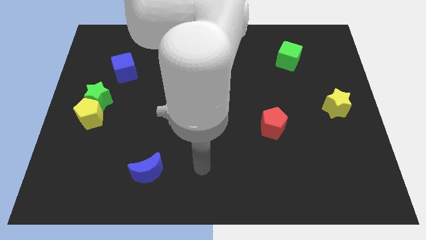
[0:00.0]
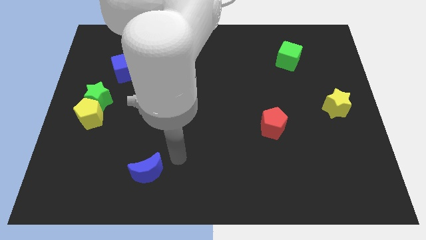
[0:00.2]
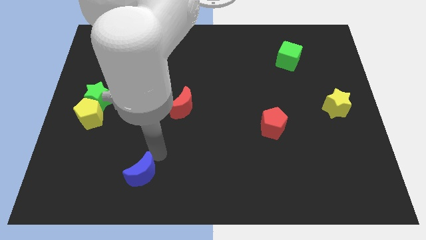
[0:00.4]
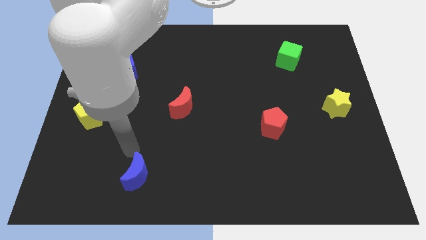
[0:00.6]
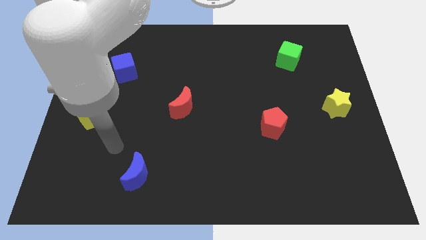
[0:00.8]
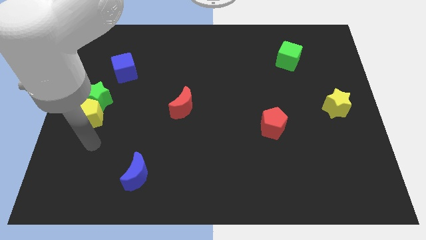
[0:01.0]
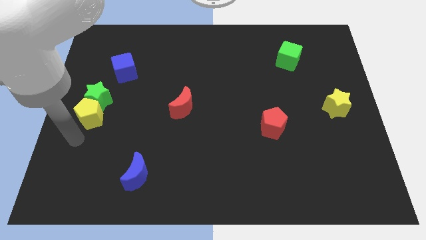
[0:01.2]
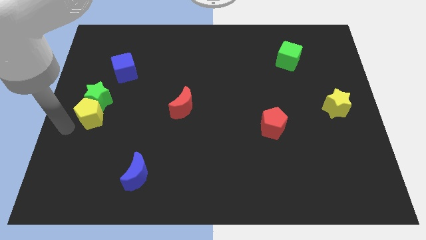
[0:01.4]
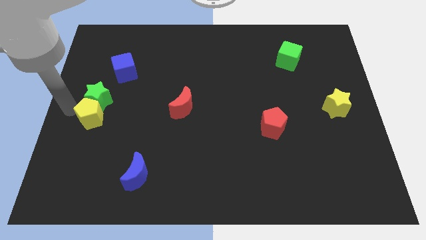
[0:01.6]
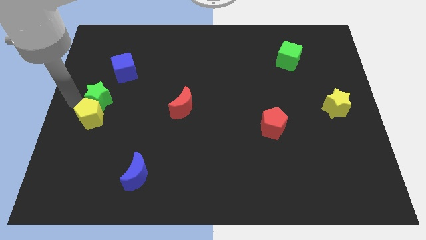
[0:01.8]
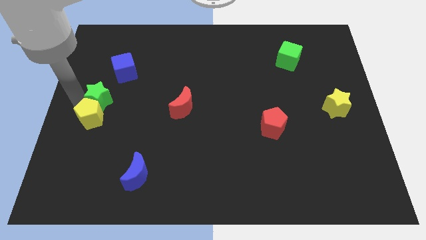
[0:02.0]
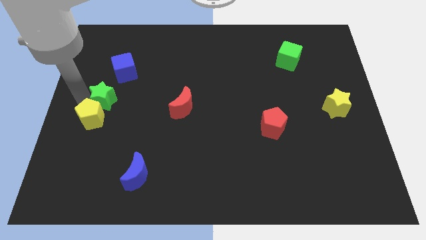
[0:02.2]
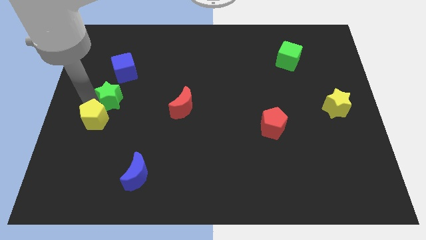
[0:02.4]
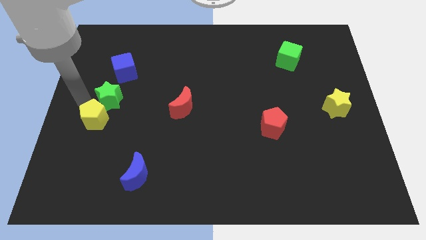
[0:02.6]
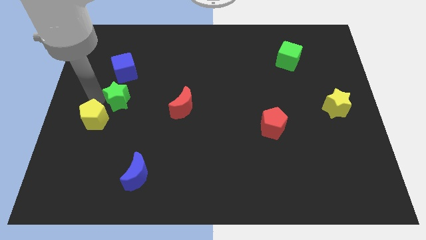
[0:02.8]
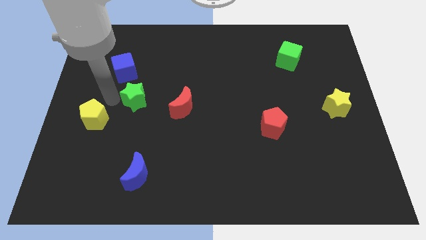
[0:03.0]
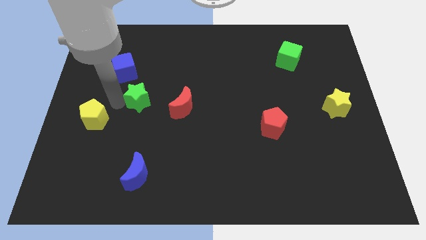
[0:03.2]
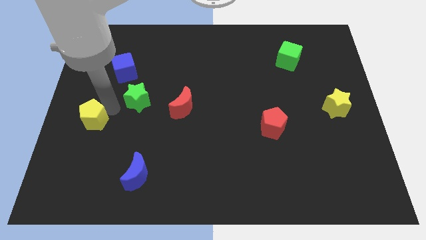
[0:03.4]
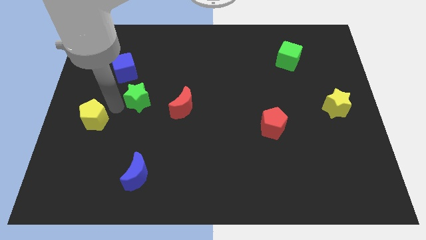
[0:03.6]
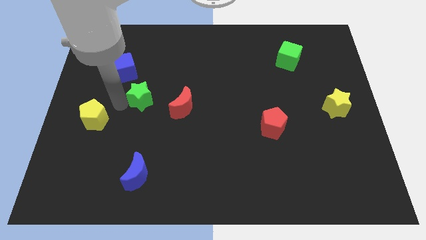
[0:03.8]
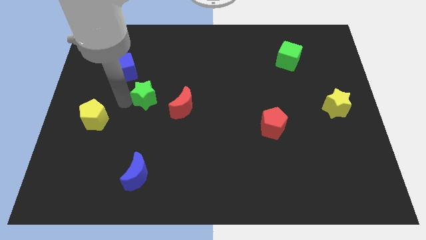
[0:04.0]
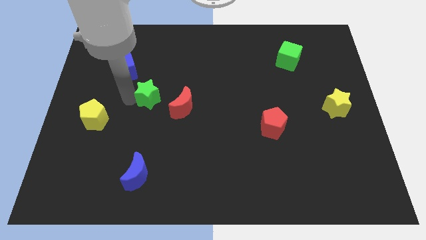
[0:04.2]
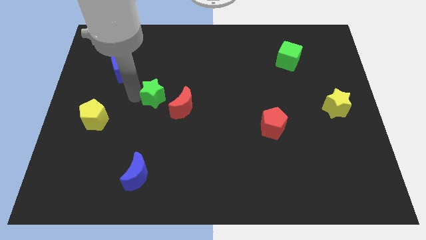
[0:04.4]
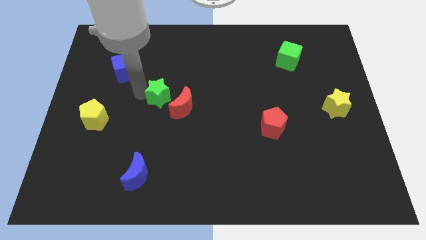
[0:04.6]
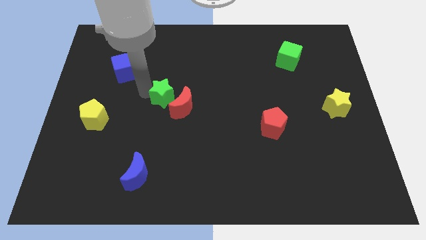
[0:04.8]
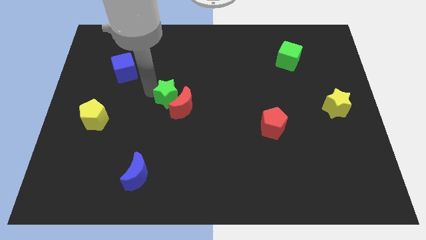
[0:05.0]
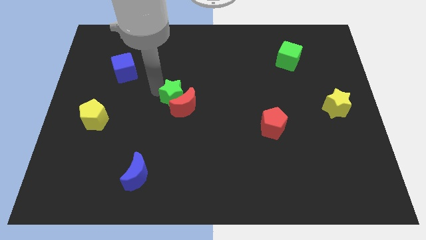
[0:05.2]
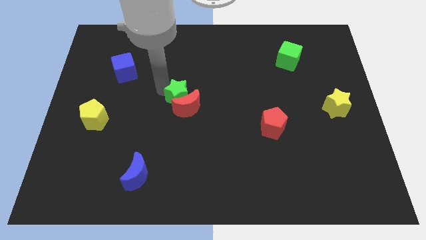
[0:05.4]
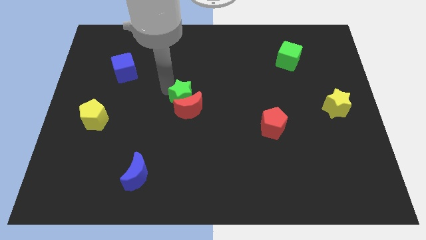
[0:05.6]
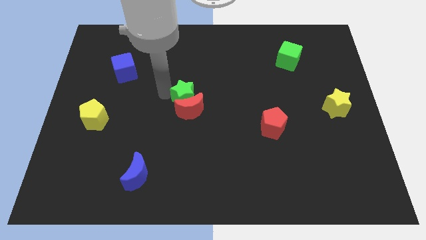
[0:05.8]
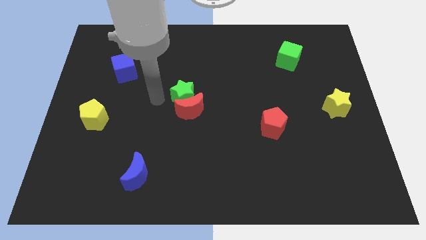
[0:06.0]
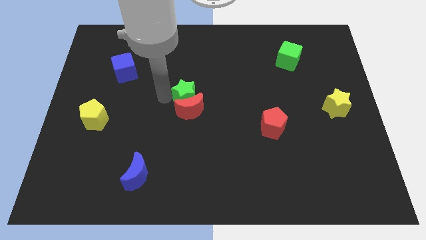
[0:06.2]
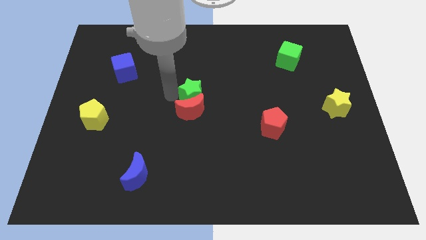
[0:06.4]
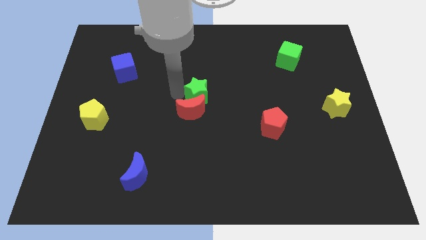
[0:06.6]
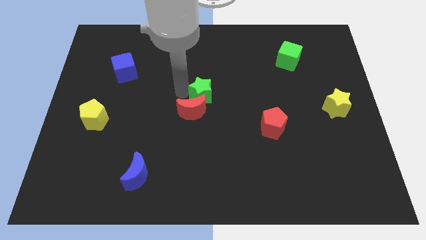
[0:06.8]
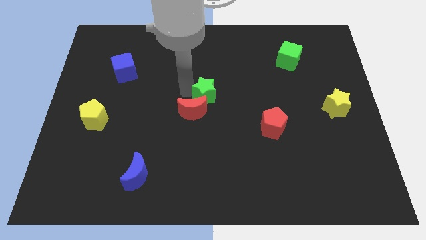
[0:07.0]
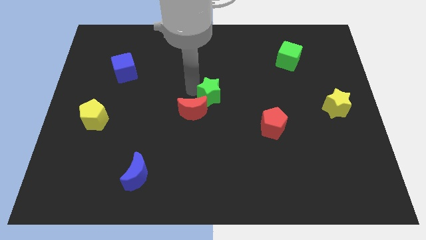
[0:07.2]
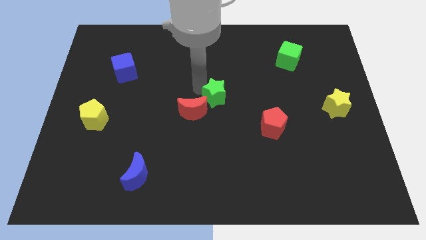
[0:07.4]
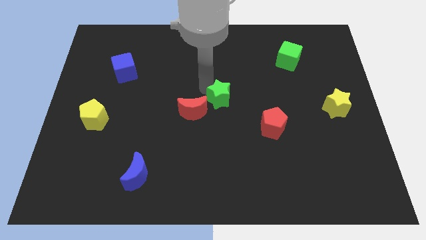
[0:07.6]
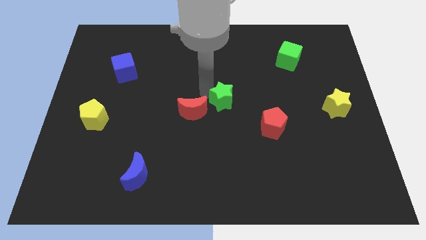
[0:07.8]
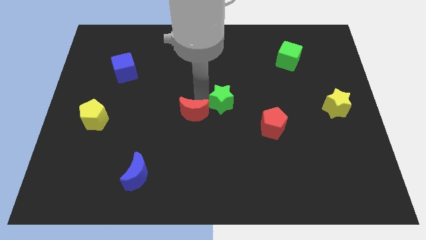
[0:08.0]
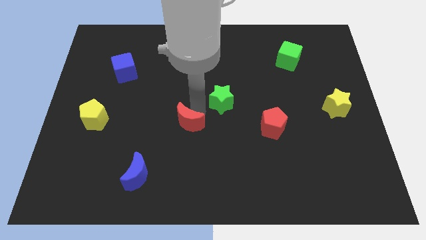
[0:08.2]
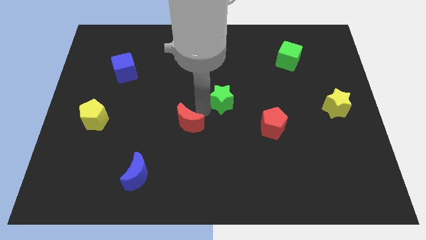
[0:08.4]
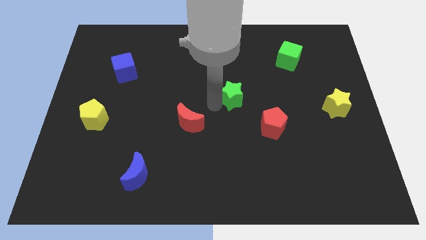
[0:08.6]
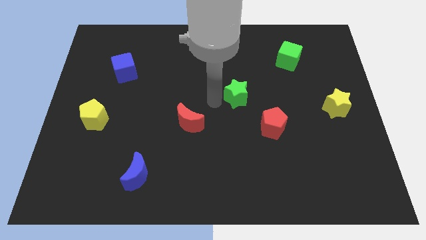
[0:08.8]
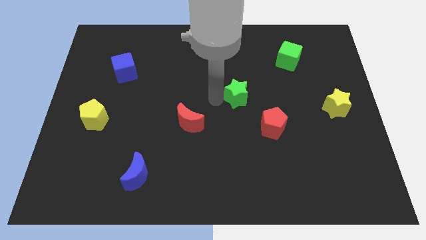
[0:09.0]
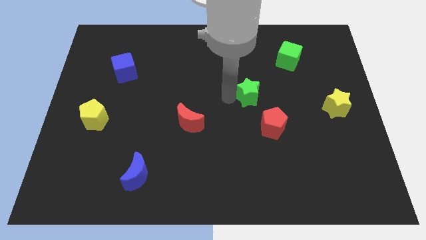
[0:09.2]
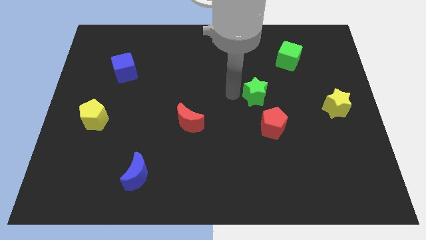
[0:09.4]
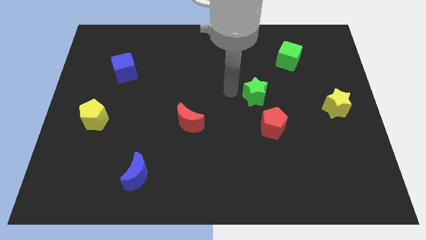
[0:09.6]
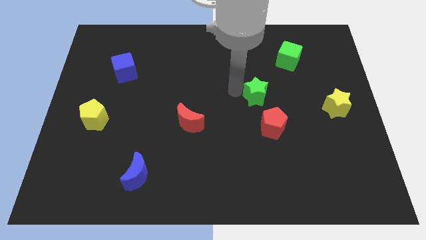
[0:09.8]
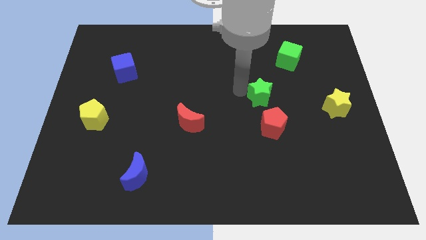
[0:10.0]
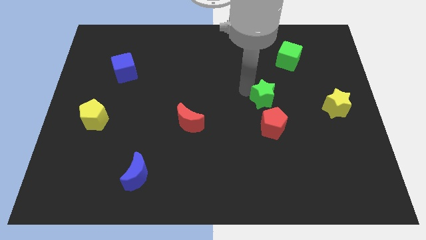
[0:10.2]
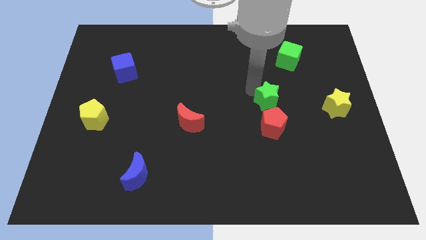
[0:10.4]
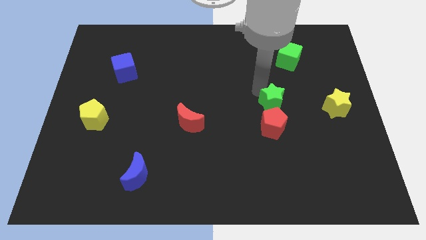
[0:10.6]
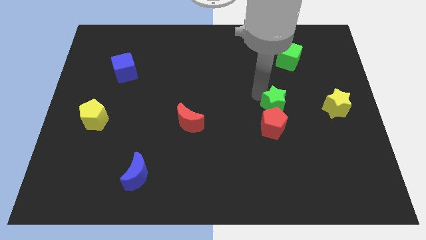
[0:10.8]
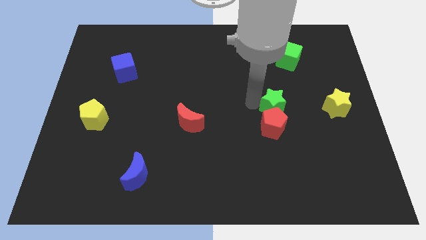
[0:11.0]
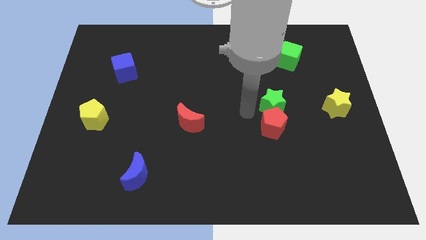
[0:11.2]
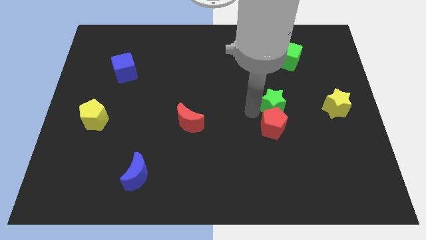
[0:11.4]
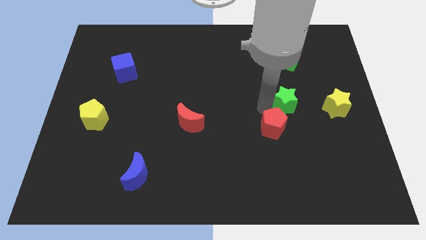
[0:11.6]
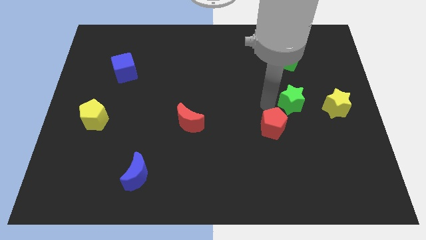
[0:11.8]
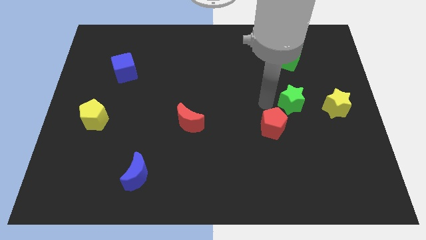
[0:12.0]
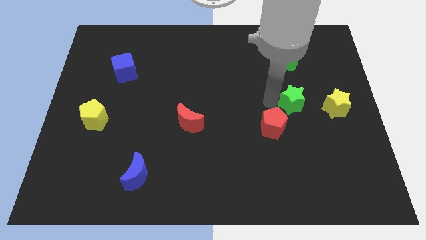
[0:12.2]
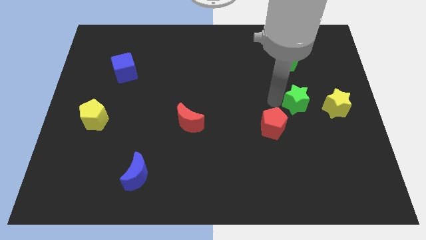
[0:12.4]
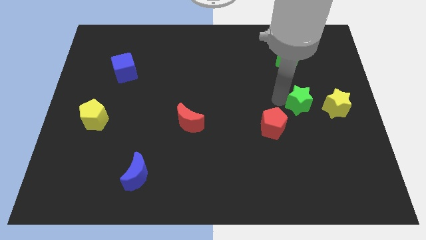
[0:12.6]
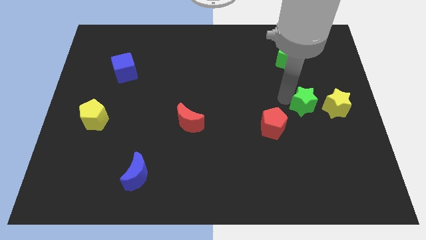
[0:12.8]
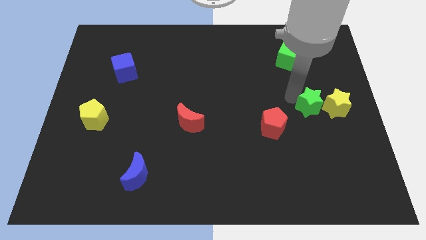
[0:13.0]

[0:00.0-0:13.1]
slide the green star next to the yellow star
